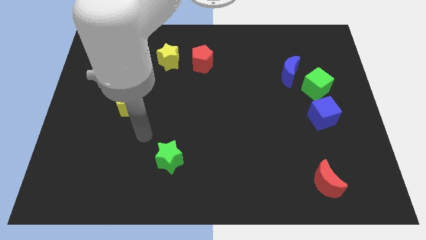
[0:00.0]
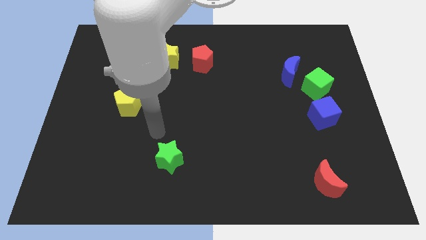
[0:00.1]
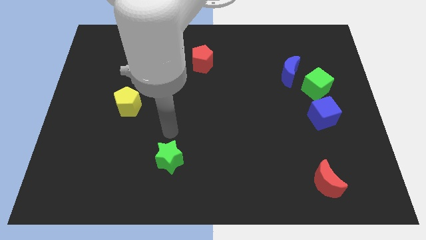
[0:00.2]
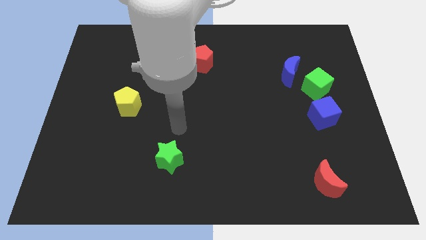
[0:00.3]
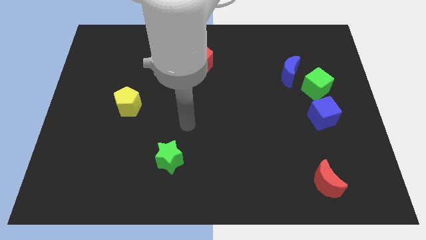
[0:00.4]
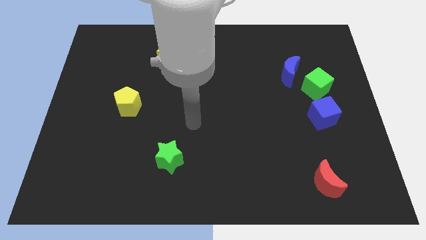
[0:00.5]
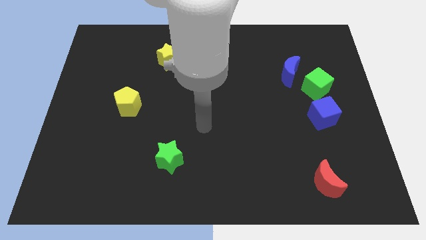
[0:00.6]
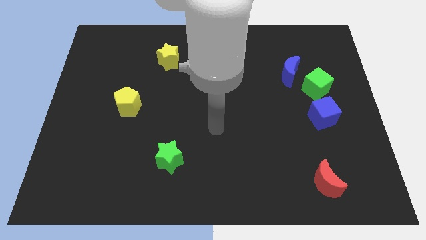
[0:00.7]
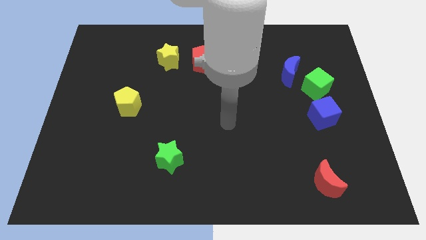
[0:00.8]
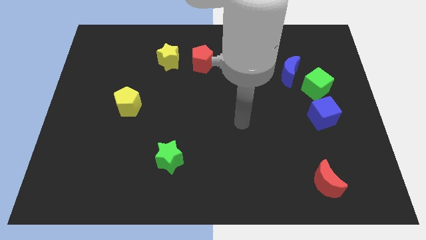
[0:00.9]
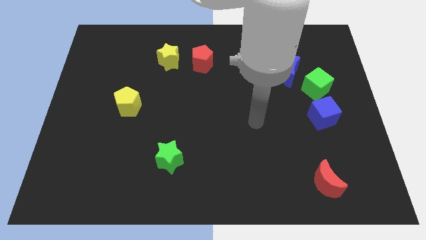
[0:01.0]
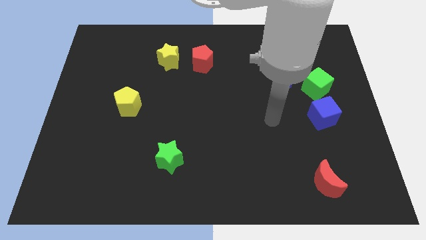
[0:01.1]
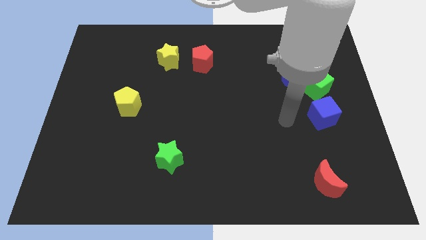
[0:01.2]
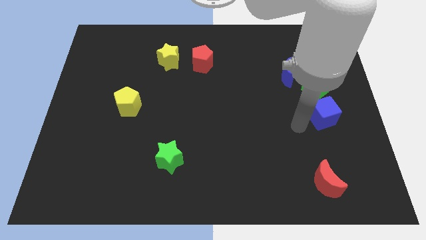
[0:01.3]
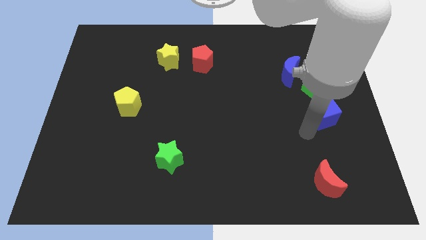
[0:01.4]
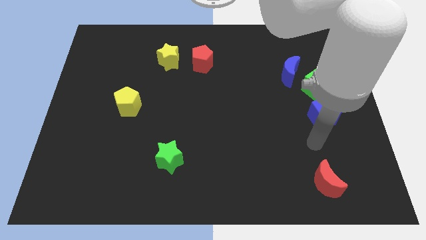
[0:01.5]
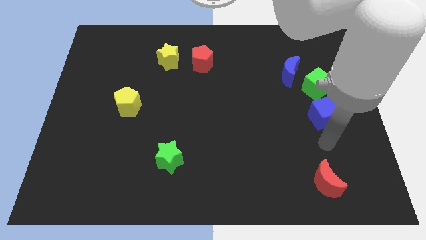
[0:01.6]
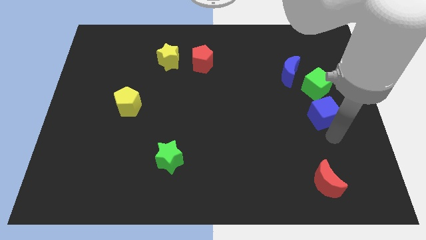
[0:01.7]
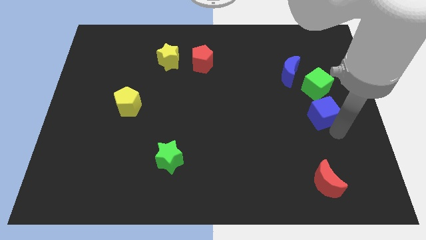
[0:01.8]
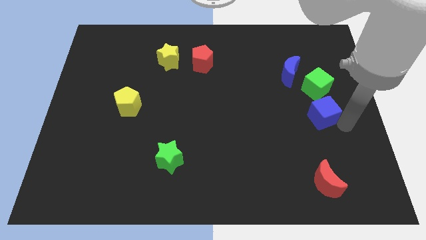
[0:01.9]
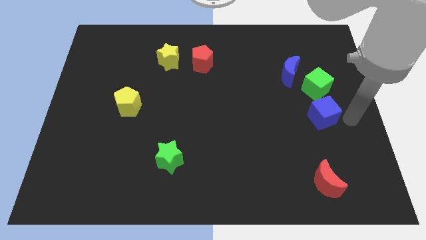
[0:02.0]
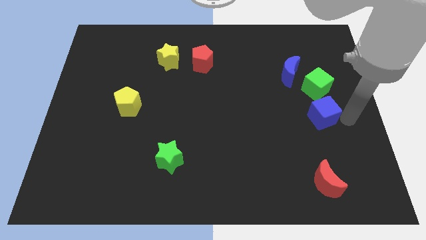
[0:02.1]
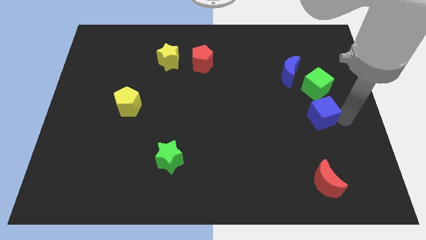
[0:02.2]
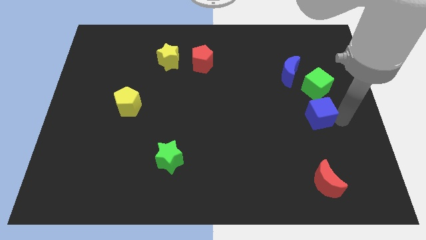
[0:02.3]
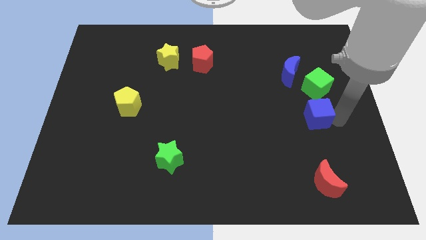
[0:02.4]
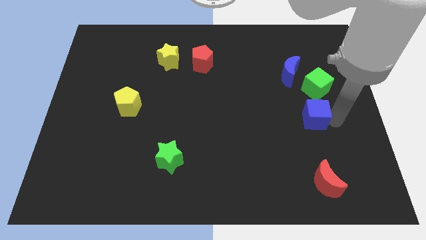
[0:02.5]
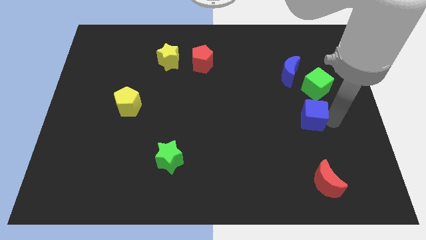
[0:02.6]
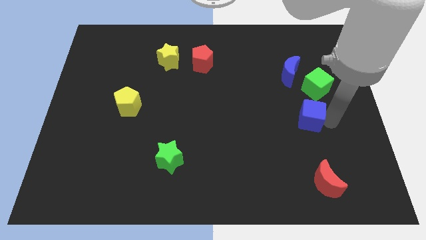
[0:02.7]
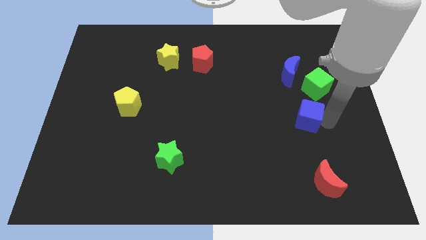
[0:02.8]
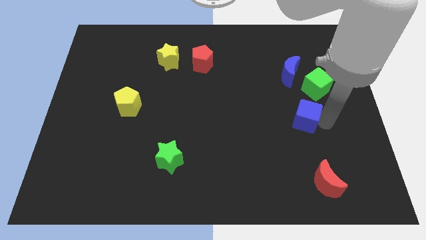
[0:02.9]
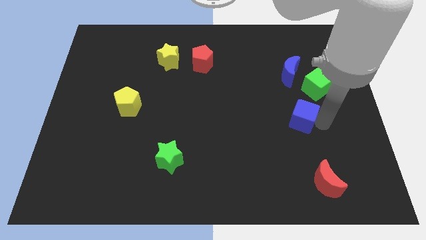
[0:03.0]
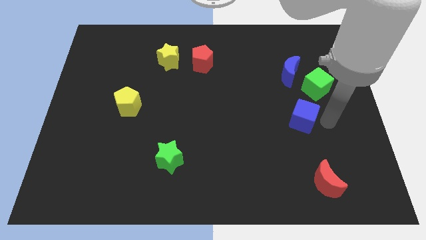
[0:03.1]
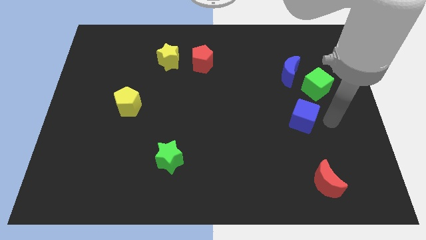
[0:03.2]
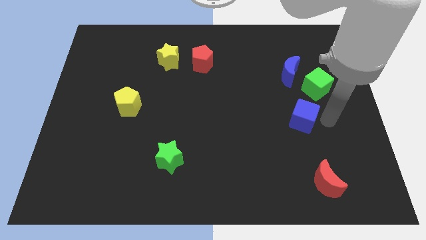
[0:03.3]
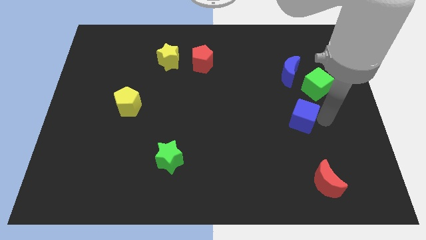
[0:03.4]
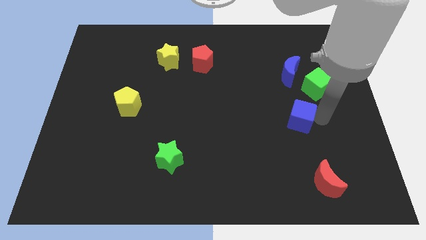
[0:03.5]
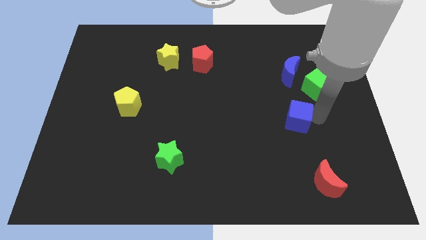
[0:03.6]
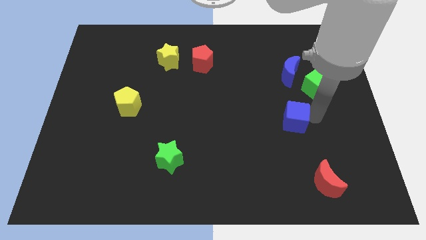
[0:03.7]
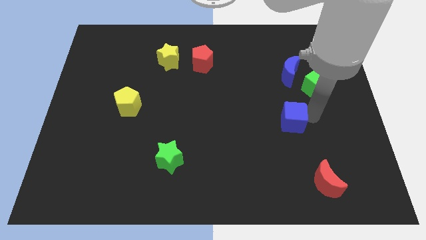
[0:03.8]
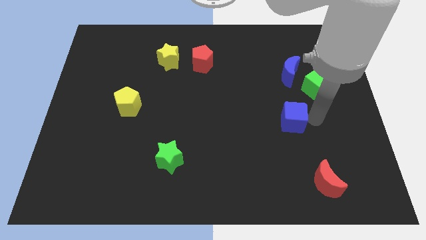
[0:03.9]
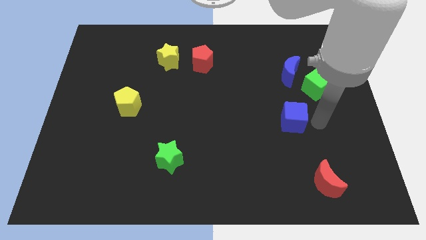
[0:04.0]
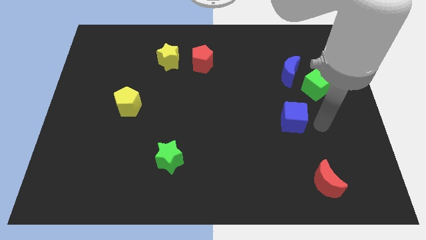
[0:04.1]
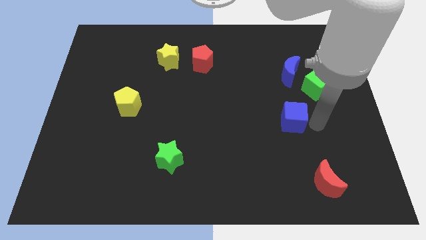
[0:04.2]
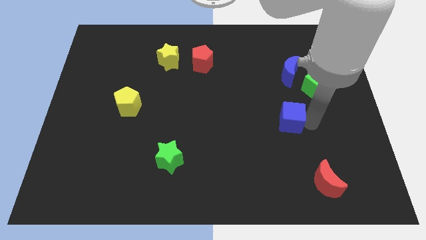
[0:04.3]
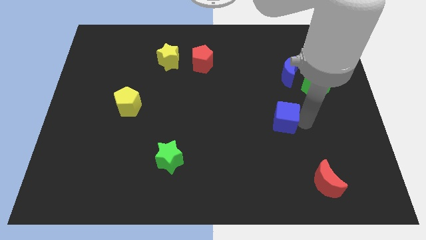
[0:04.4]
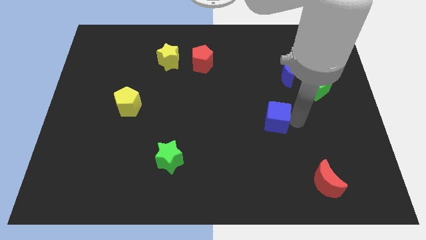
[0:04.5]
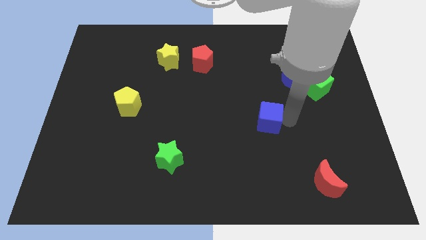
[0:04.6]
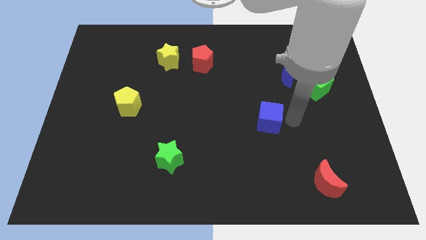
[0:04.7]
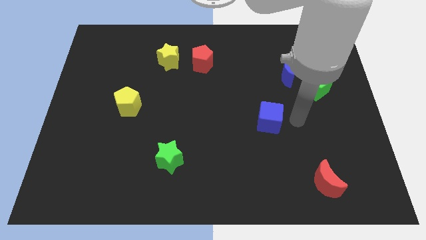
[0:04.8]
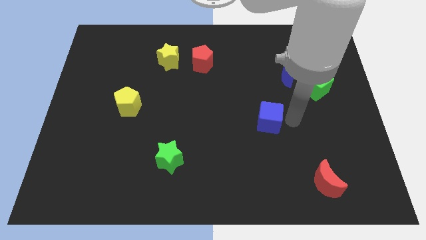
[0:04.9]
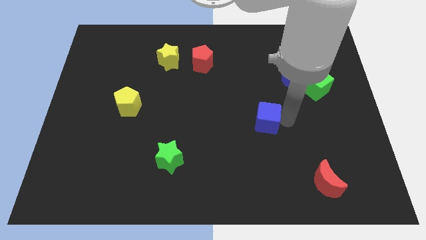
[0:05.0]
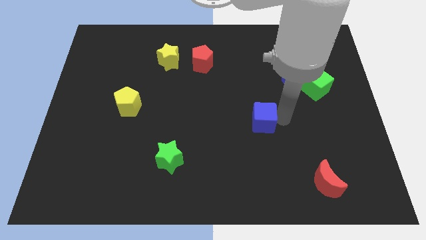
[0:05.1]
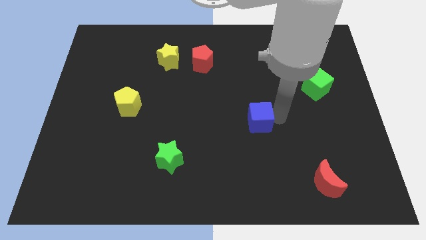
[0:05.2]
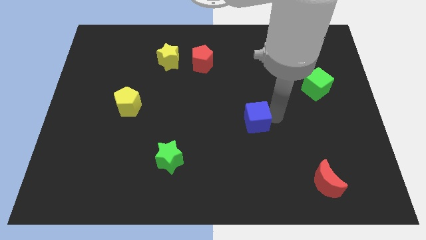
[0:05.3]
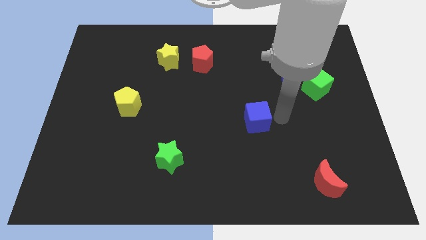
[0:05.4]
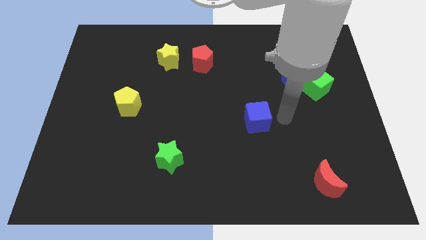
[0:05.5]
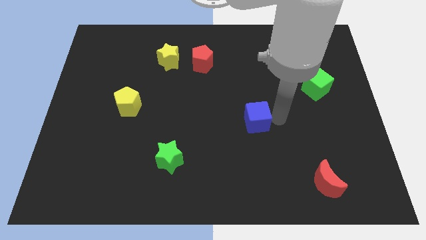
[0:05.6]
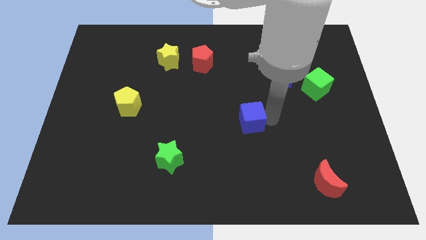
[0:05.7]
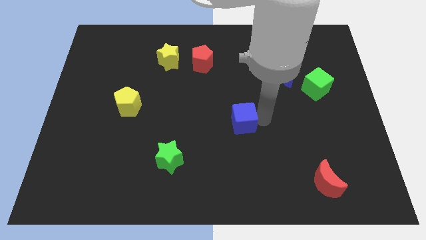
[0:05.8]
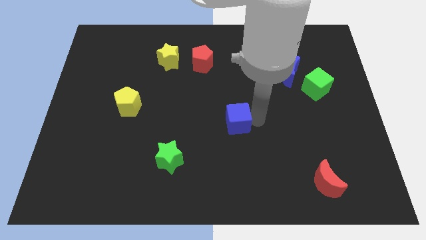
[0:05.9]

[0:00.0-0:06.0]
move the blue cube to the left

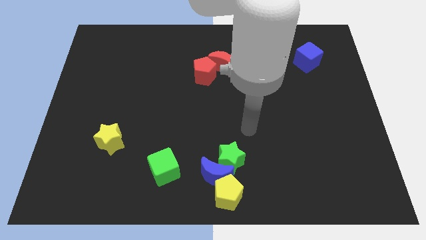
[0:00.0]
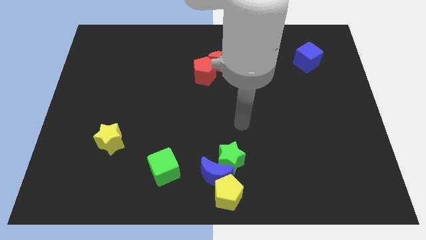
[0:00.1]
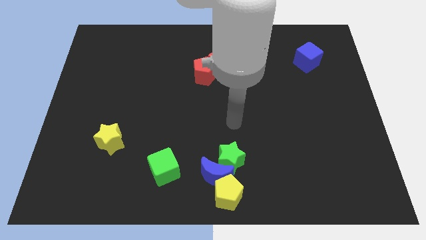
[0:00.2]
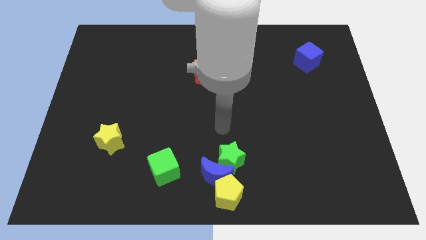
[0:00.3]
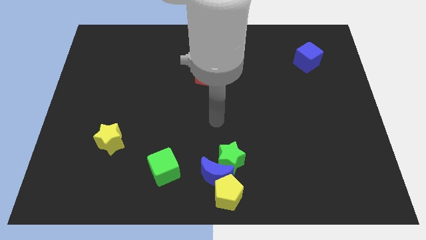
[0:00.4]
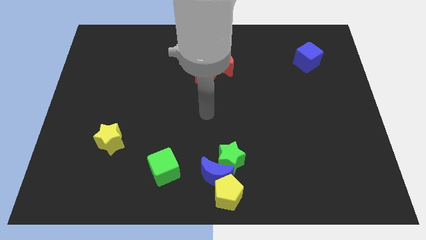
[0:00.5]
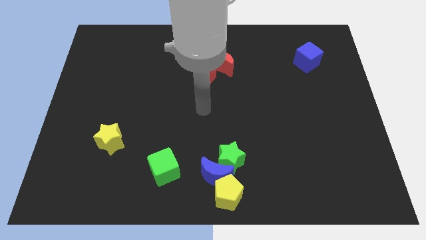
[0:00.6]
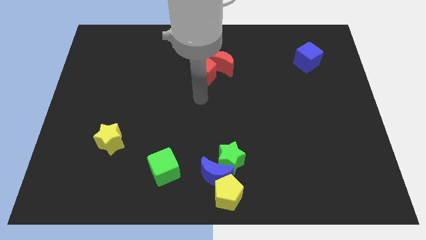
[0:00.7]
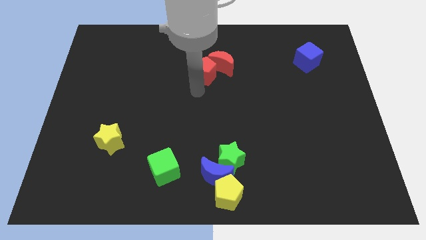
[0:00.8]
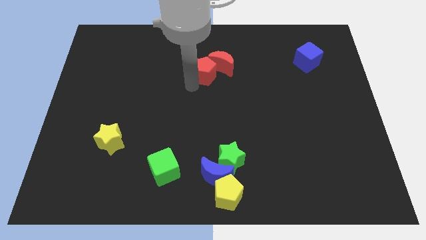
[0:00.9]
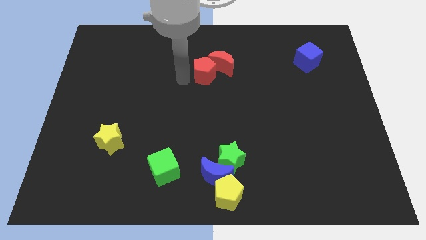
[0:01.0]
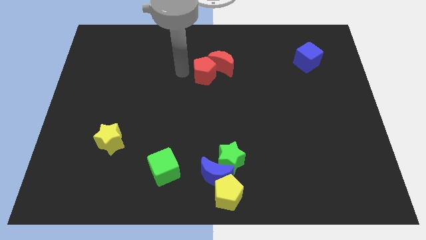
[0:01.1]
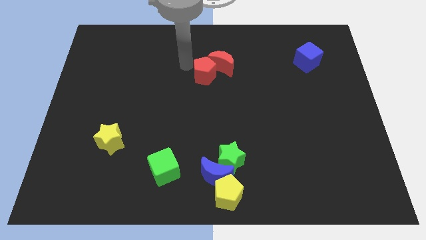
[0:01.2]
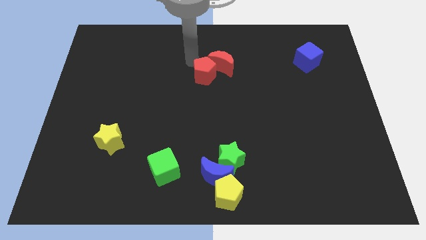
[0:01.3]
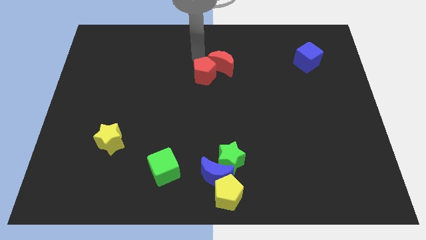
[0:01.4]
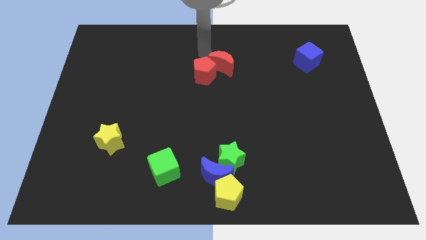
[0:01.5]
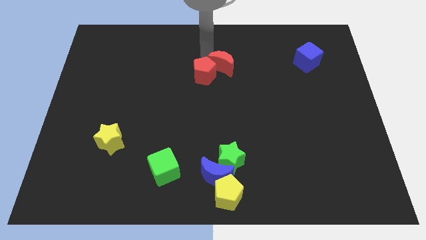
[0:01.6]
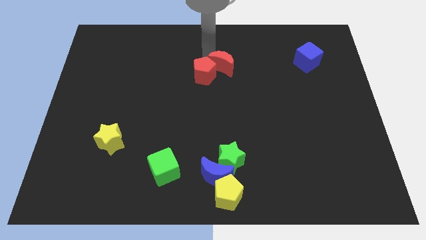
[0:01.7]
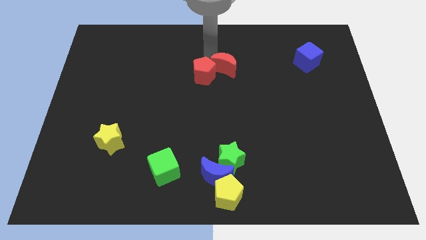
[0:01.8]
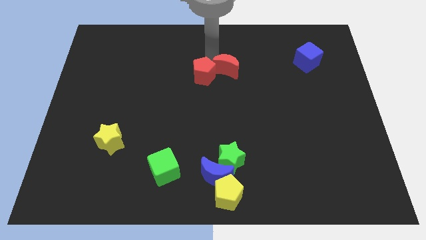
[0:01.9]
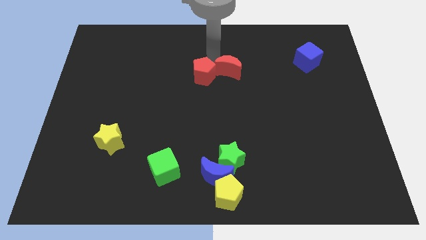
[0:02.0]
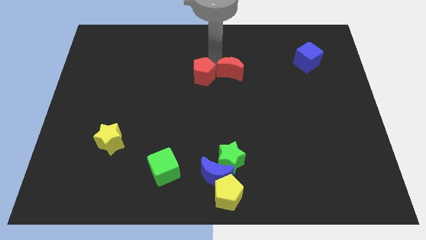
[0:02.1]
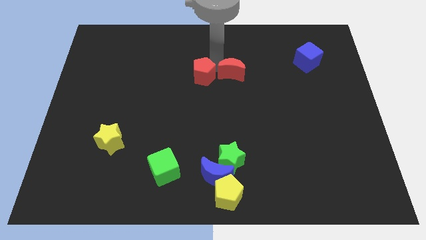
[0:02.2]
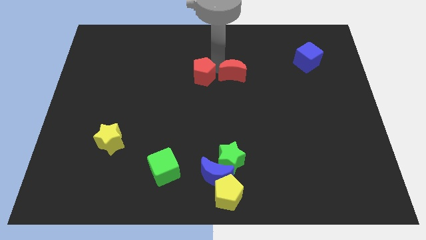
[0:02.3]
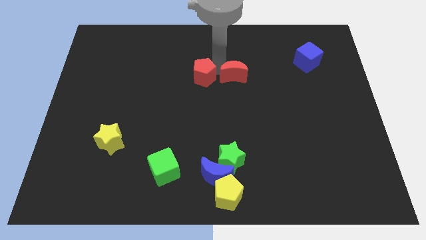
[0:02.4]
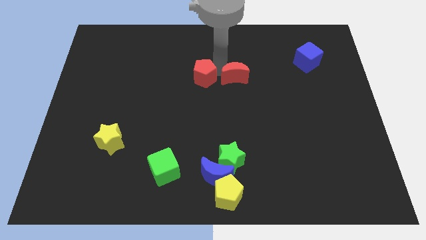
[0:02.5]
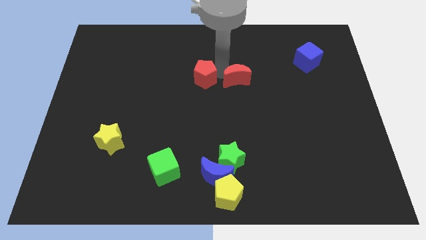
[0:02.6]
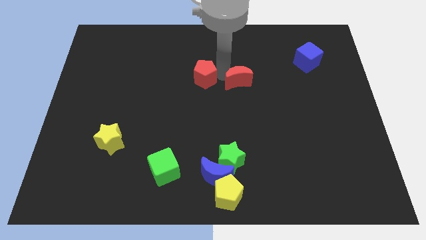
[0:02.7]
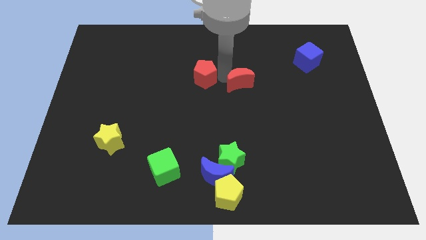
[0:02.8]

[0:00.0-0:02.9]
push the red moon diagonally downwards and right a little bit
